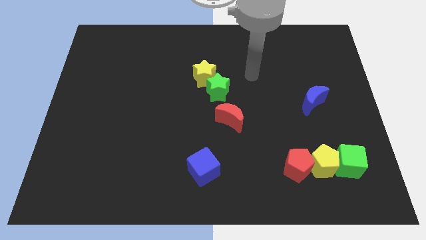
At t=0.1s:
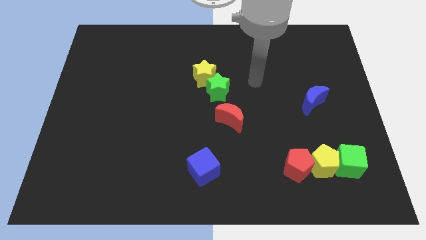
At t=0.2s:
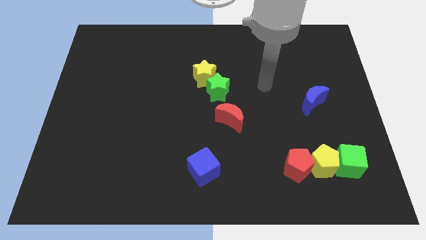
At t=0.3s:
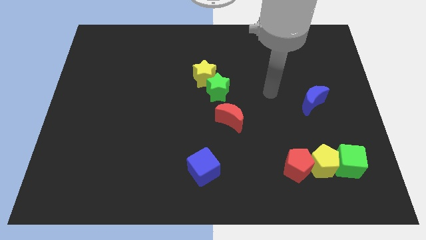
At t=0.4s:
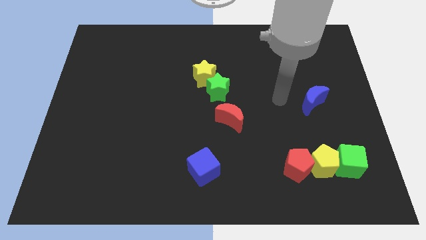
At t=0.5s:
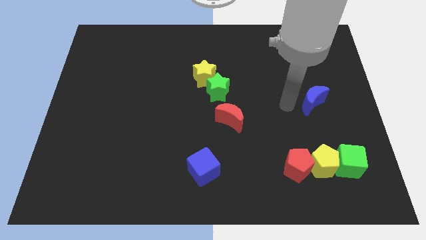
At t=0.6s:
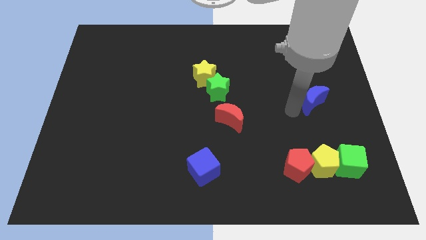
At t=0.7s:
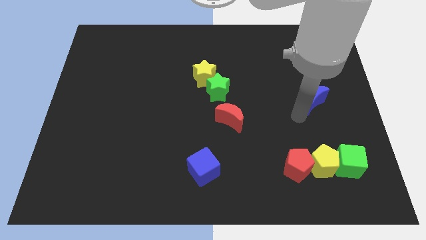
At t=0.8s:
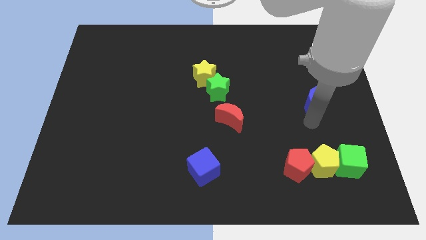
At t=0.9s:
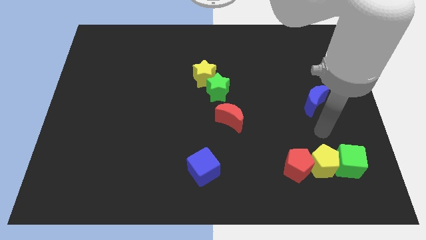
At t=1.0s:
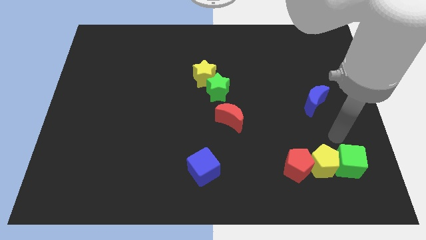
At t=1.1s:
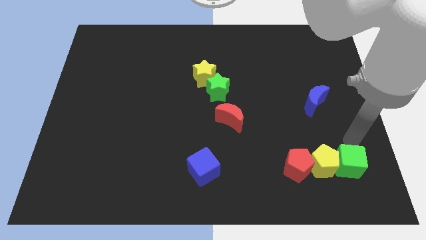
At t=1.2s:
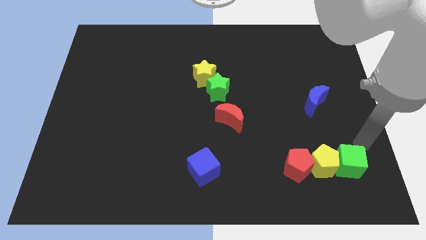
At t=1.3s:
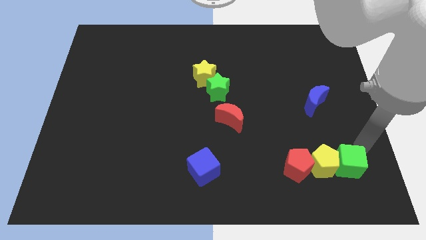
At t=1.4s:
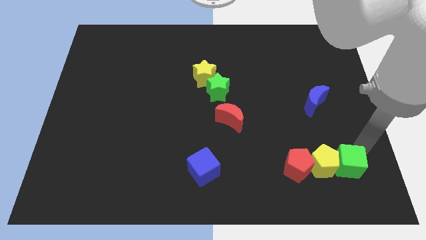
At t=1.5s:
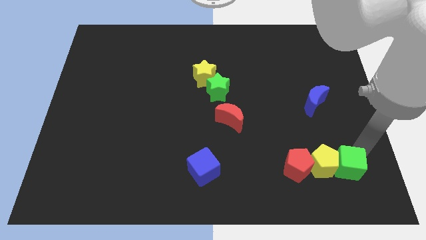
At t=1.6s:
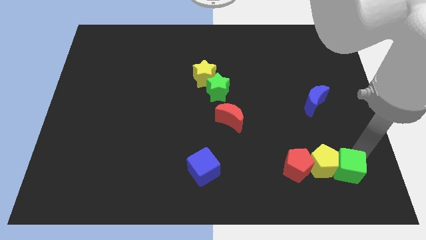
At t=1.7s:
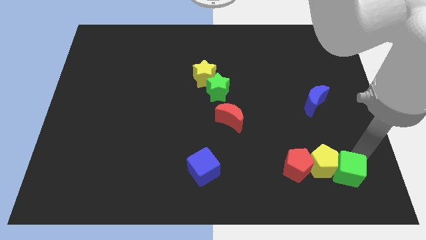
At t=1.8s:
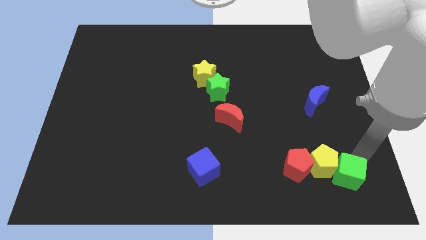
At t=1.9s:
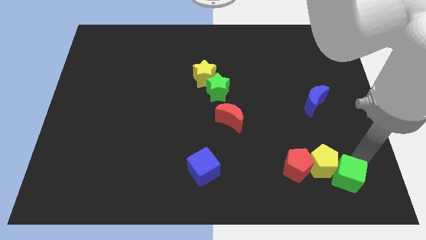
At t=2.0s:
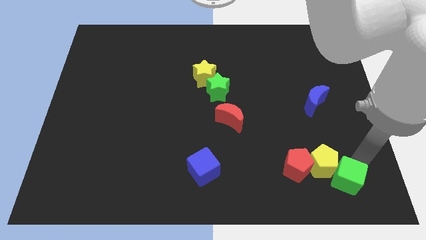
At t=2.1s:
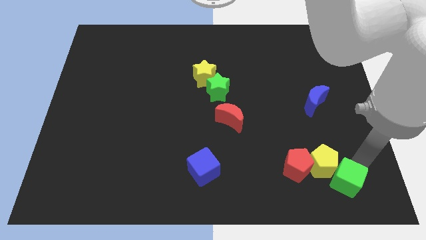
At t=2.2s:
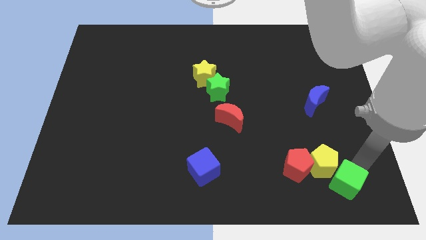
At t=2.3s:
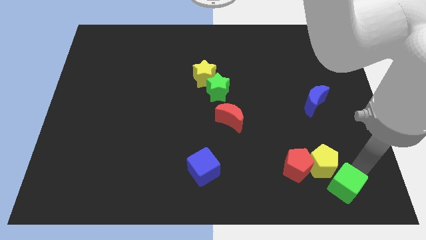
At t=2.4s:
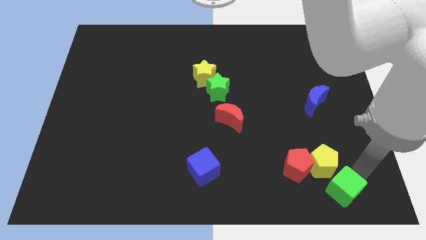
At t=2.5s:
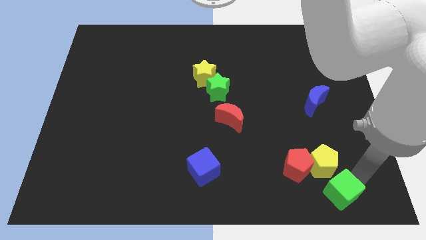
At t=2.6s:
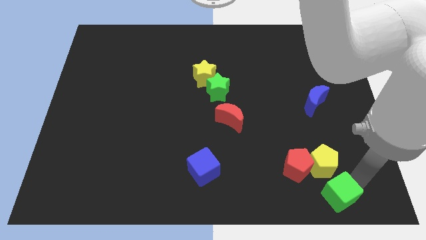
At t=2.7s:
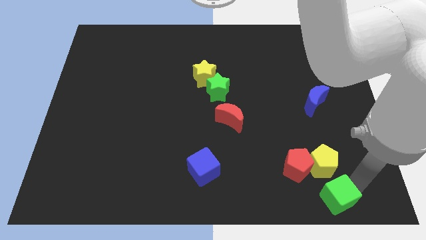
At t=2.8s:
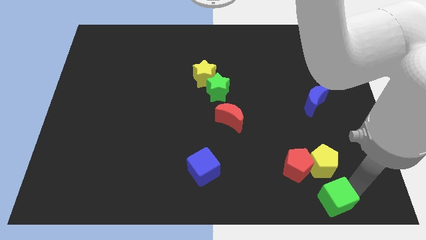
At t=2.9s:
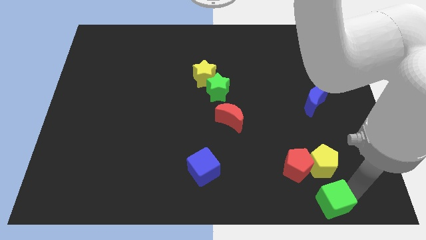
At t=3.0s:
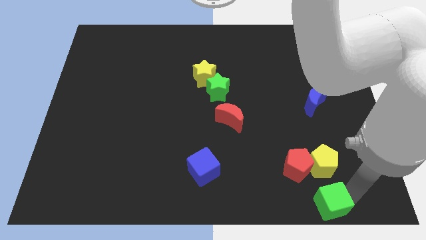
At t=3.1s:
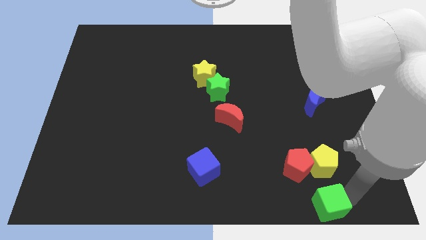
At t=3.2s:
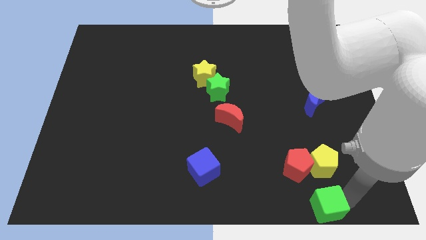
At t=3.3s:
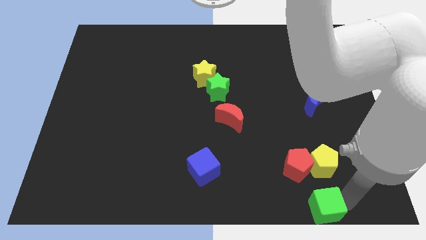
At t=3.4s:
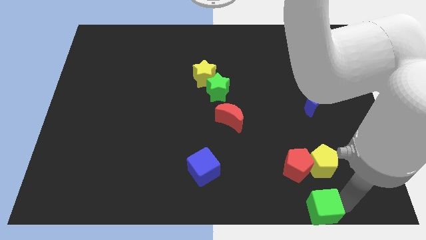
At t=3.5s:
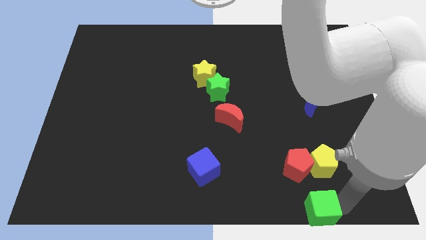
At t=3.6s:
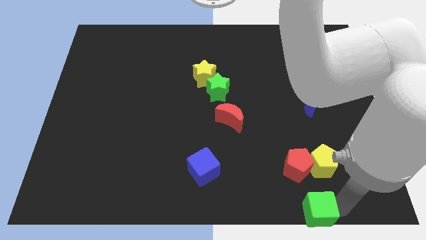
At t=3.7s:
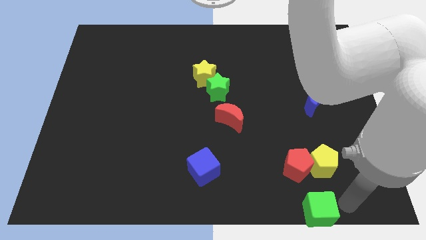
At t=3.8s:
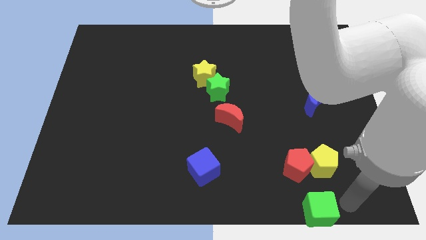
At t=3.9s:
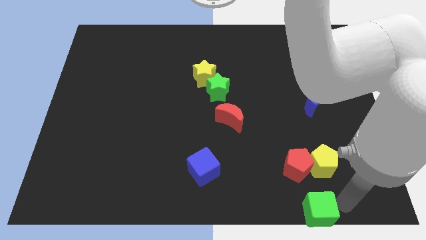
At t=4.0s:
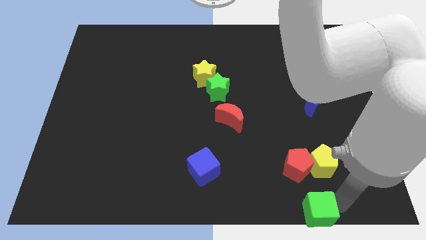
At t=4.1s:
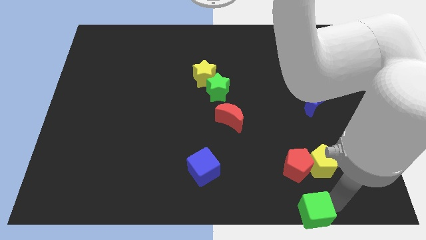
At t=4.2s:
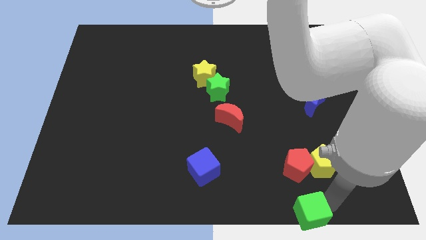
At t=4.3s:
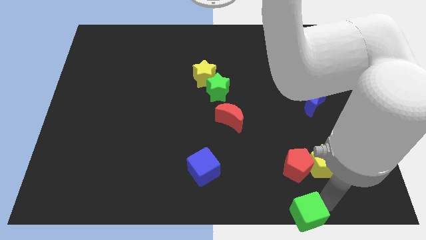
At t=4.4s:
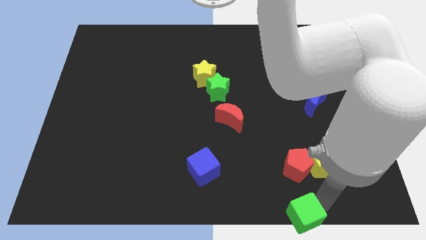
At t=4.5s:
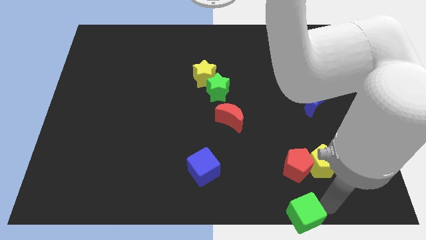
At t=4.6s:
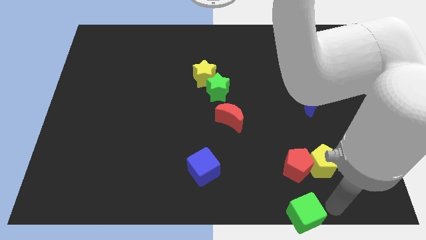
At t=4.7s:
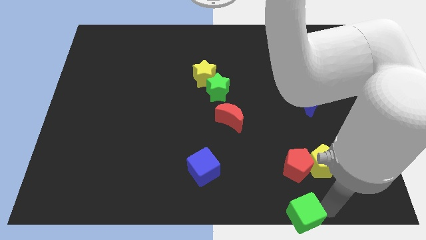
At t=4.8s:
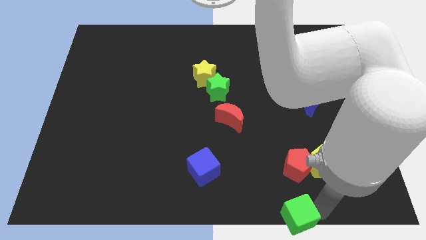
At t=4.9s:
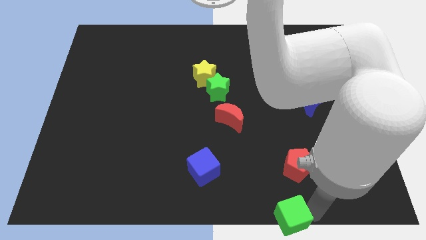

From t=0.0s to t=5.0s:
push the green cube to the bottom

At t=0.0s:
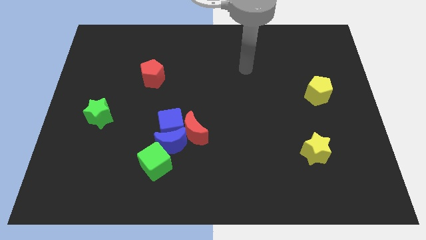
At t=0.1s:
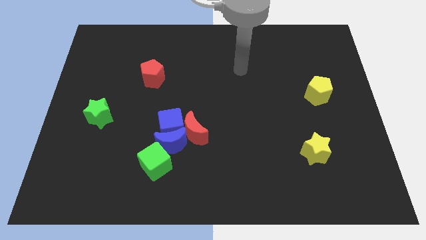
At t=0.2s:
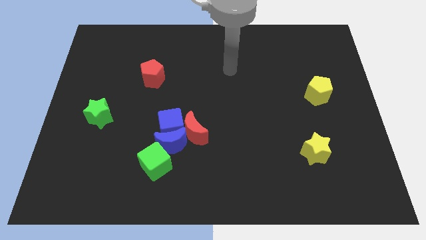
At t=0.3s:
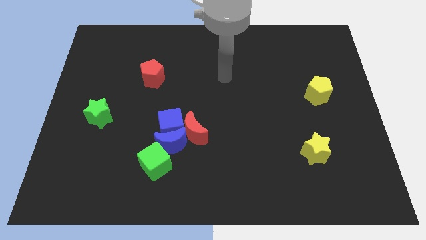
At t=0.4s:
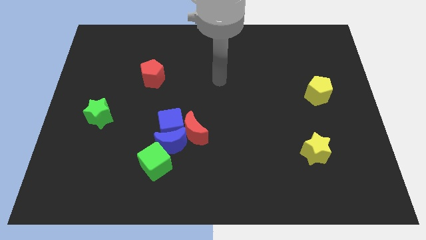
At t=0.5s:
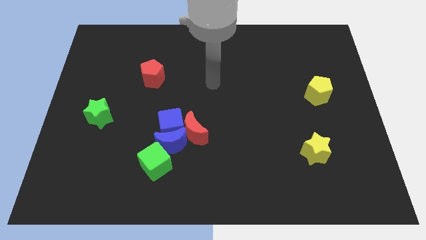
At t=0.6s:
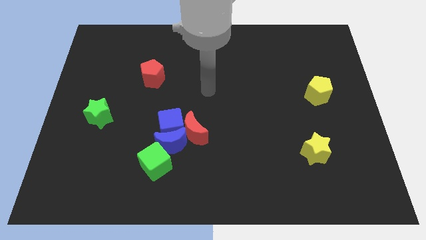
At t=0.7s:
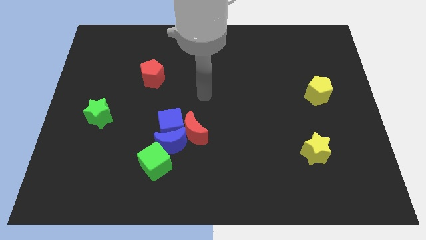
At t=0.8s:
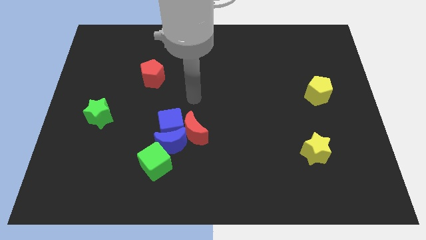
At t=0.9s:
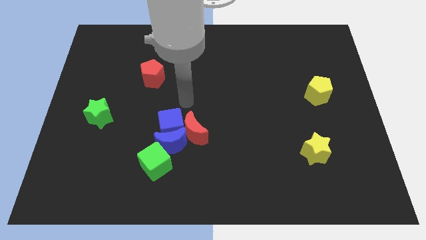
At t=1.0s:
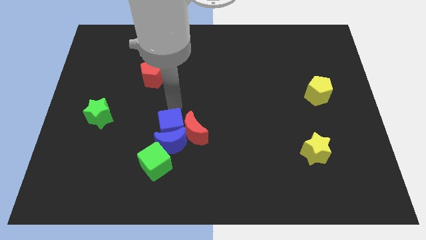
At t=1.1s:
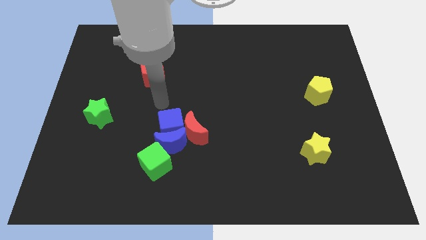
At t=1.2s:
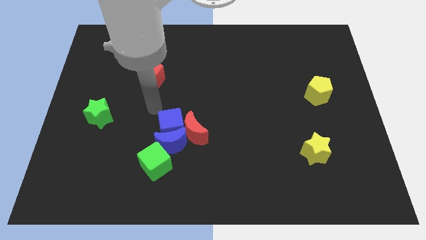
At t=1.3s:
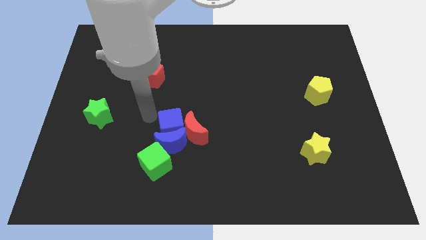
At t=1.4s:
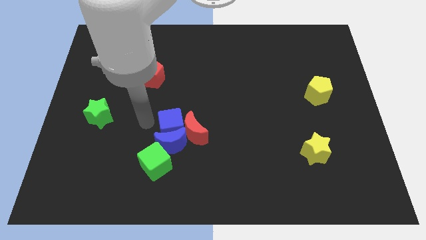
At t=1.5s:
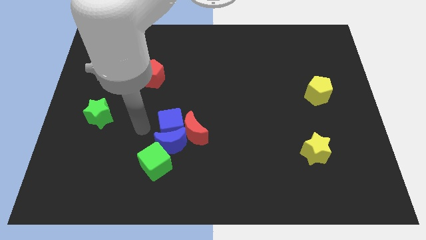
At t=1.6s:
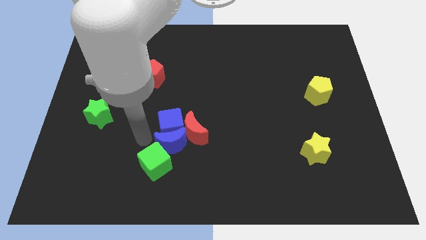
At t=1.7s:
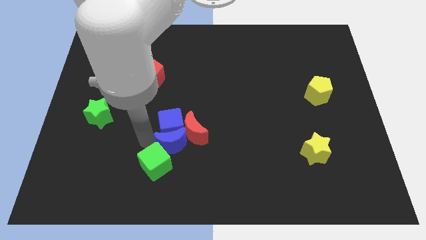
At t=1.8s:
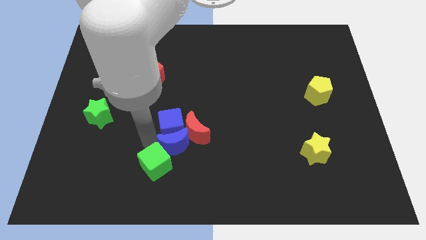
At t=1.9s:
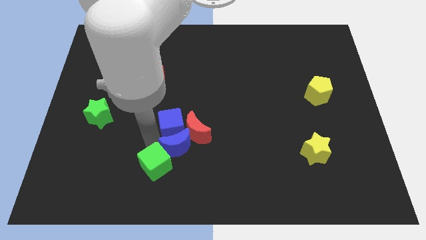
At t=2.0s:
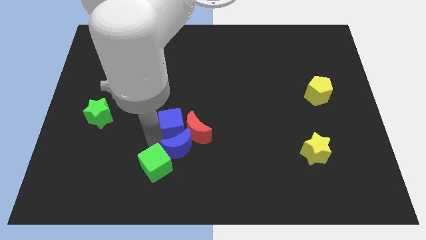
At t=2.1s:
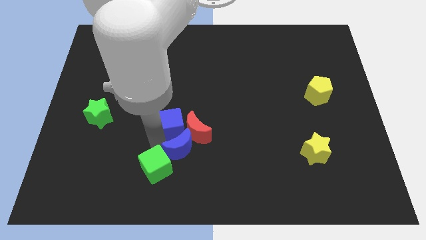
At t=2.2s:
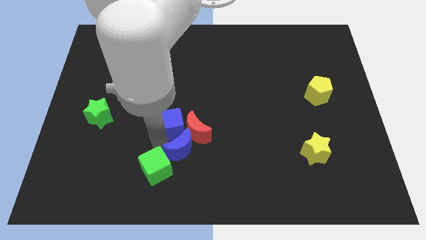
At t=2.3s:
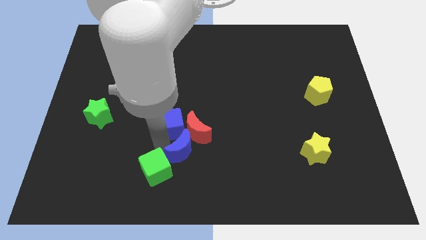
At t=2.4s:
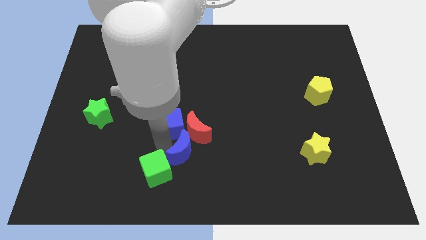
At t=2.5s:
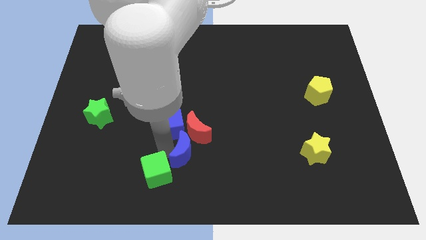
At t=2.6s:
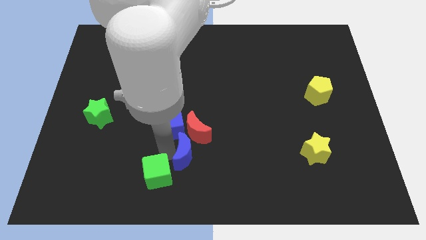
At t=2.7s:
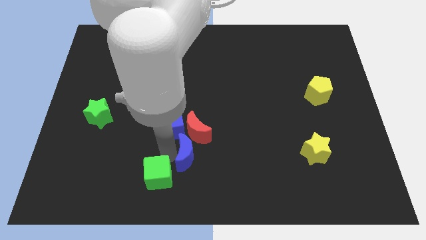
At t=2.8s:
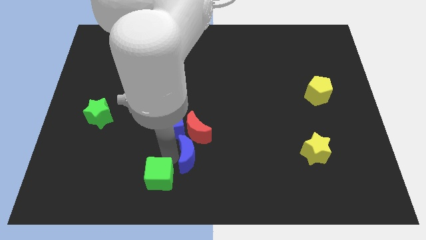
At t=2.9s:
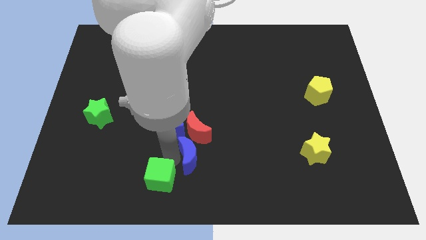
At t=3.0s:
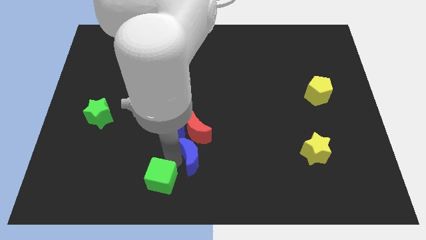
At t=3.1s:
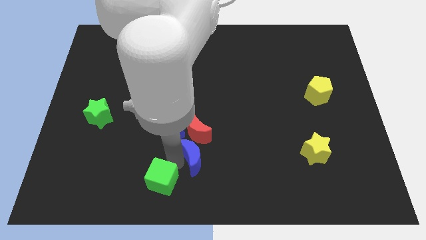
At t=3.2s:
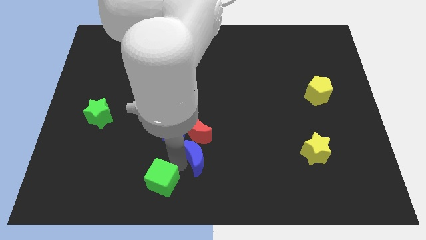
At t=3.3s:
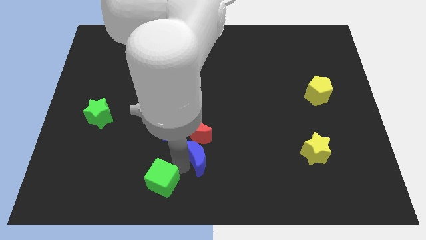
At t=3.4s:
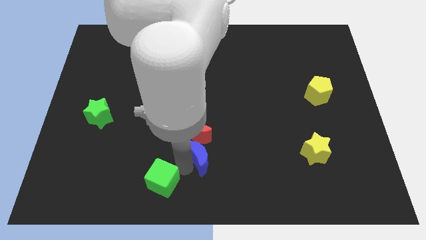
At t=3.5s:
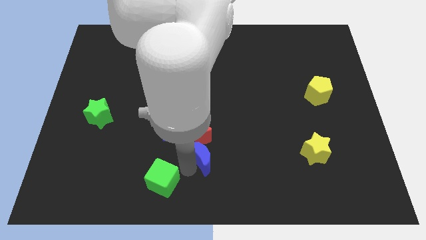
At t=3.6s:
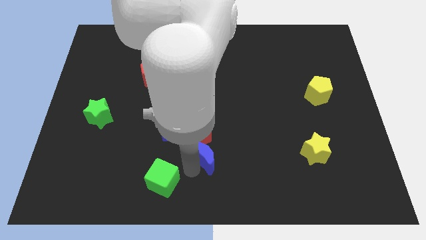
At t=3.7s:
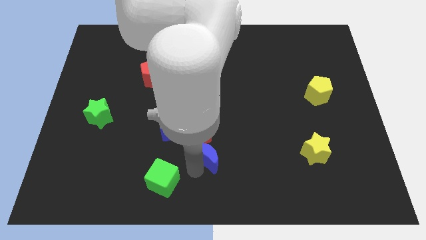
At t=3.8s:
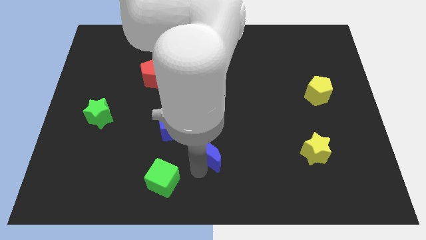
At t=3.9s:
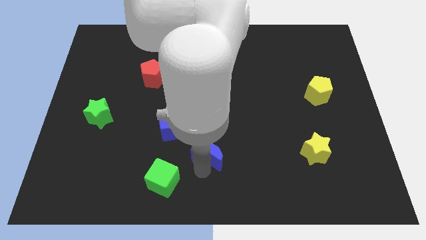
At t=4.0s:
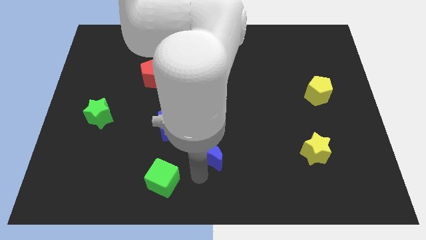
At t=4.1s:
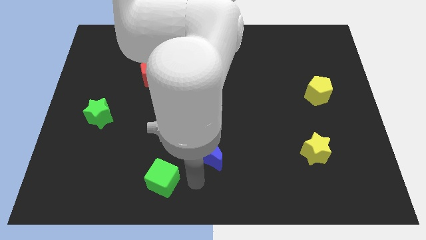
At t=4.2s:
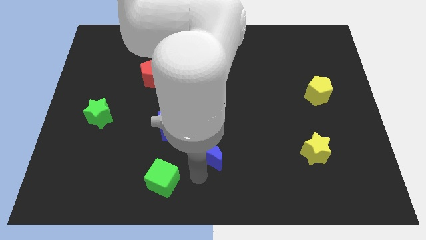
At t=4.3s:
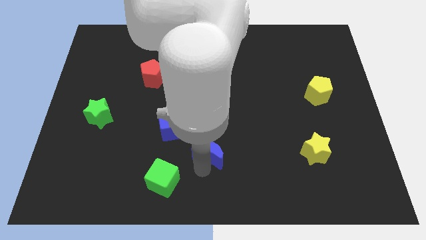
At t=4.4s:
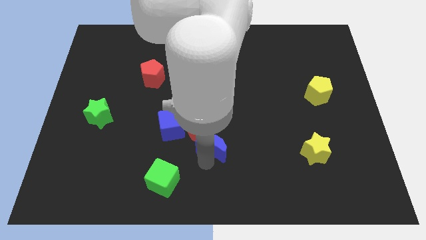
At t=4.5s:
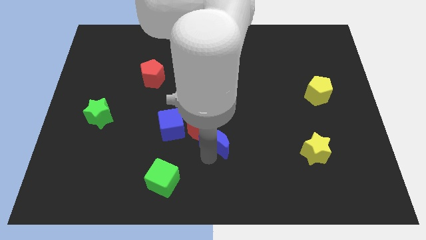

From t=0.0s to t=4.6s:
slide the blue moon to the center
